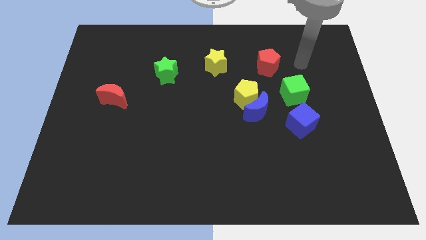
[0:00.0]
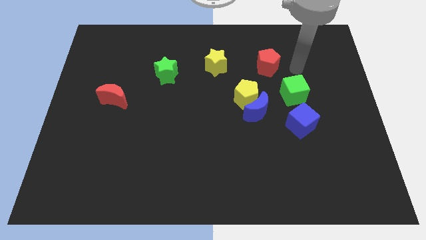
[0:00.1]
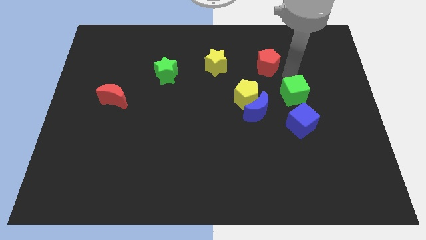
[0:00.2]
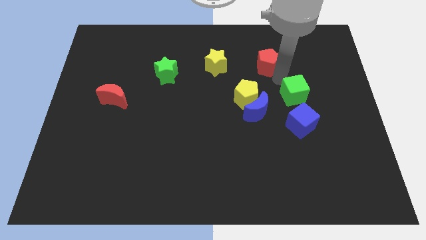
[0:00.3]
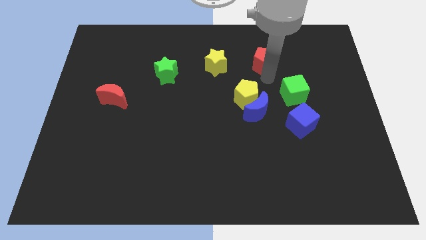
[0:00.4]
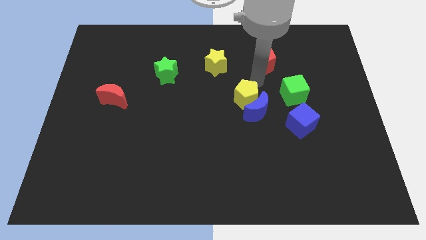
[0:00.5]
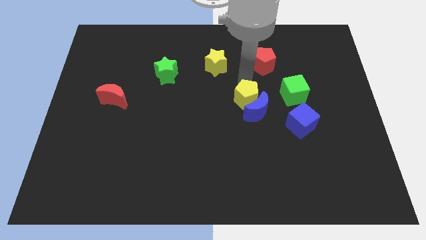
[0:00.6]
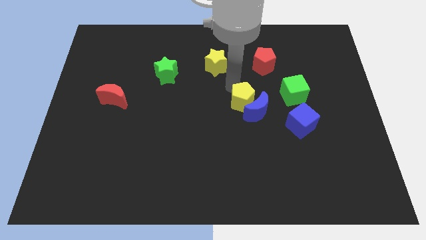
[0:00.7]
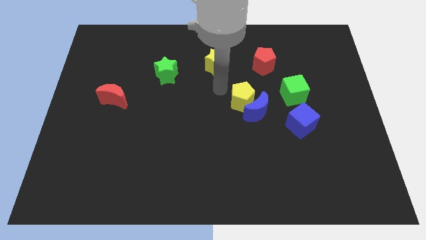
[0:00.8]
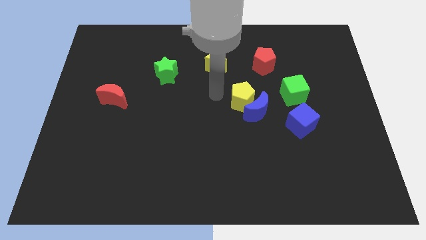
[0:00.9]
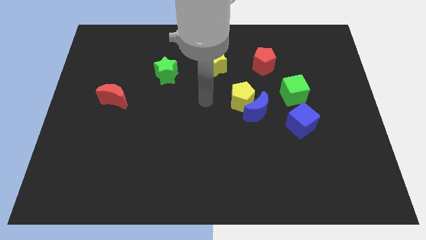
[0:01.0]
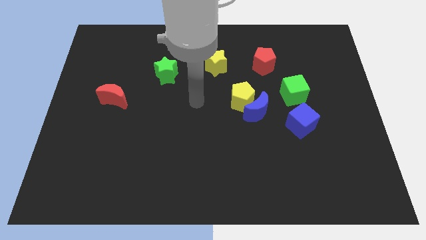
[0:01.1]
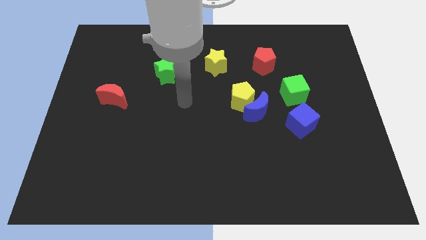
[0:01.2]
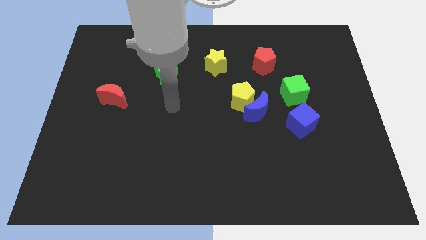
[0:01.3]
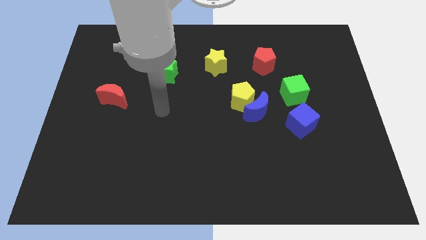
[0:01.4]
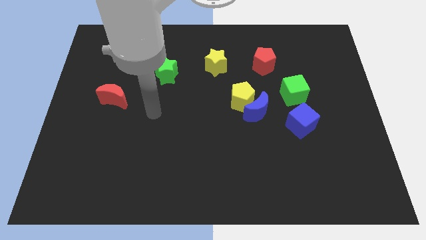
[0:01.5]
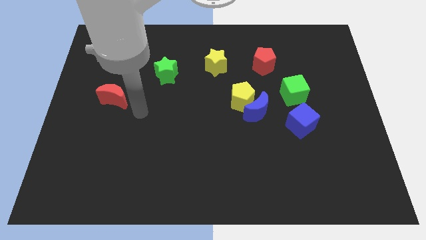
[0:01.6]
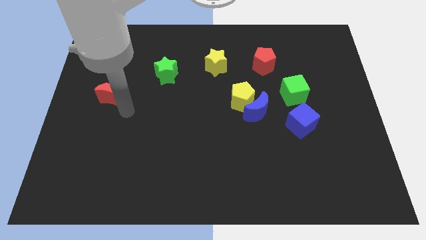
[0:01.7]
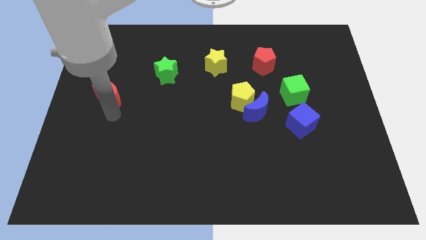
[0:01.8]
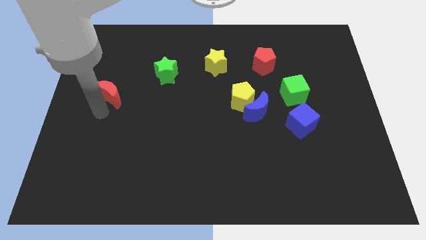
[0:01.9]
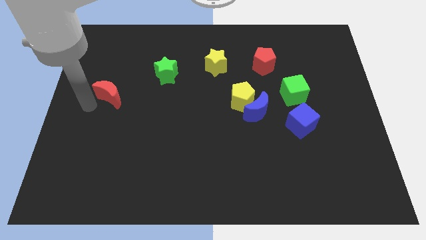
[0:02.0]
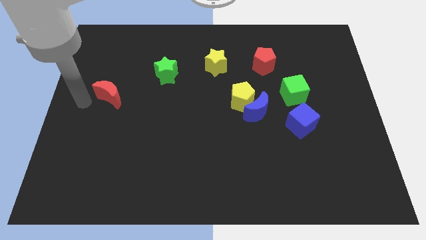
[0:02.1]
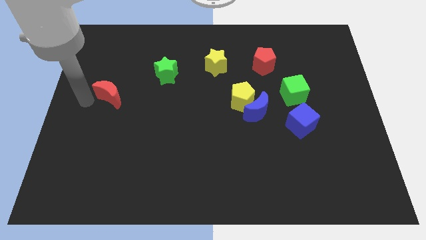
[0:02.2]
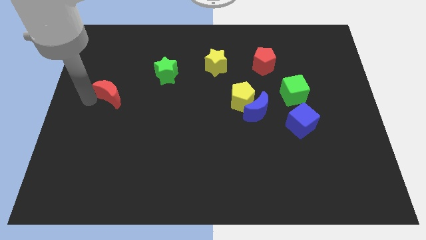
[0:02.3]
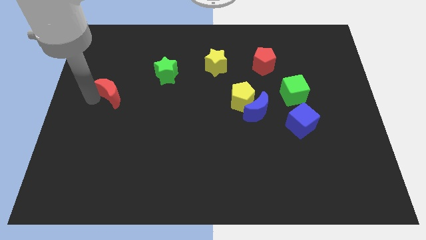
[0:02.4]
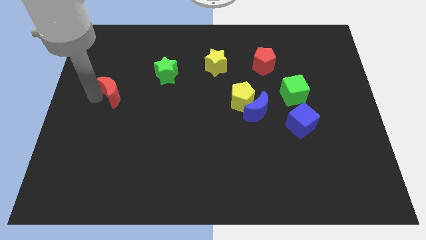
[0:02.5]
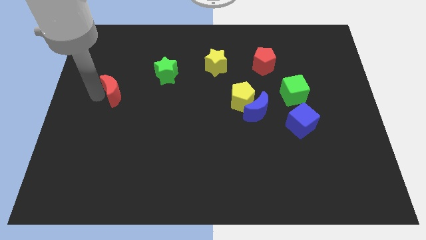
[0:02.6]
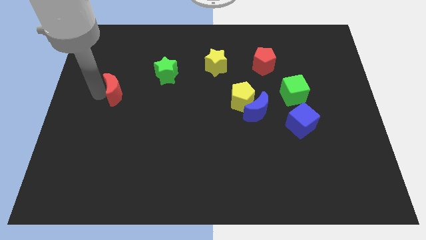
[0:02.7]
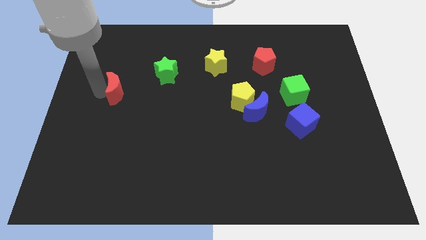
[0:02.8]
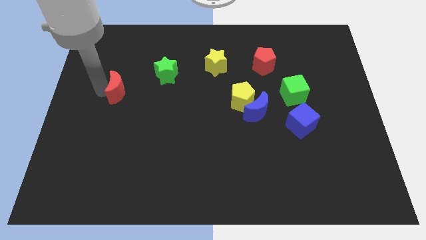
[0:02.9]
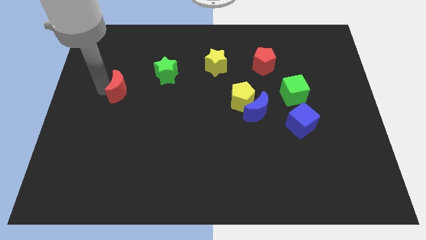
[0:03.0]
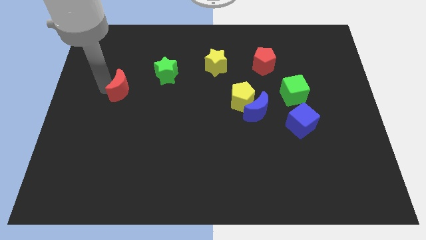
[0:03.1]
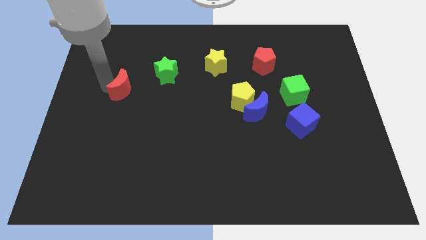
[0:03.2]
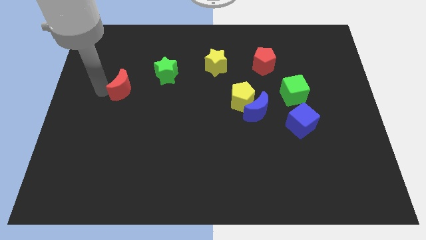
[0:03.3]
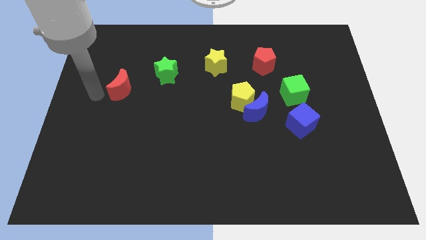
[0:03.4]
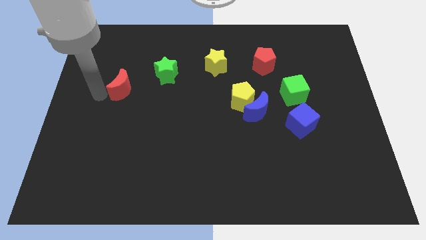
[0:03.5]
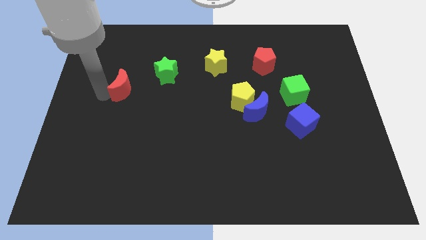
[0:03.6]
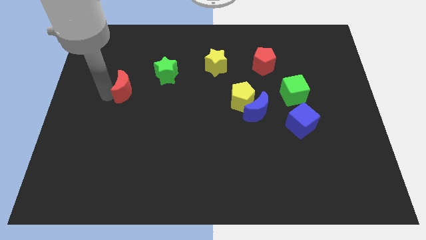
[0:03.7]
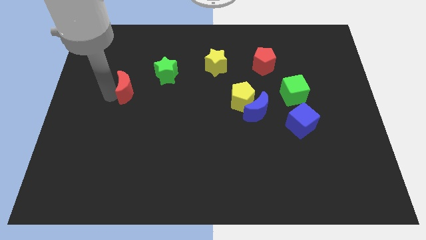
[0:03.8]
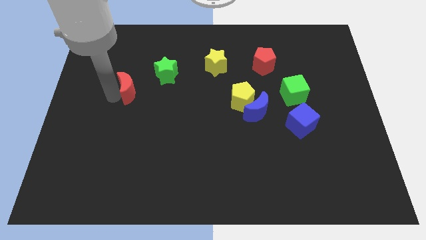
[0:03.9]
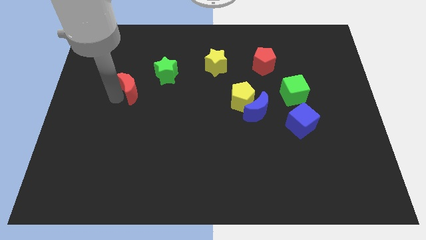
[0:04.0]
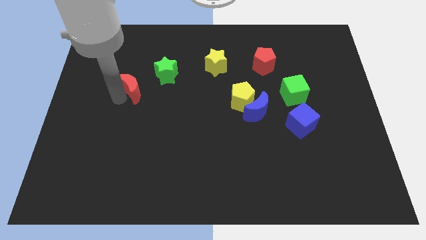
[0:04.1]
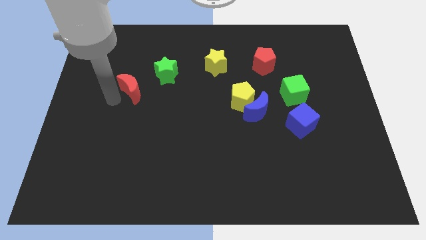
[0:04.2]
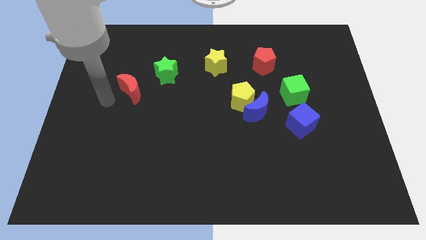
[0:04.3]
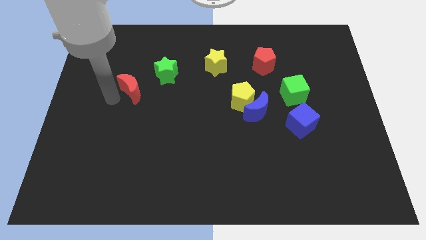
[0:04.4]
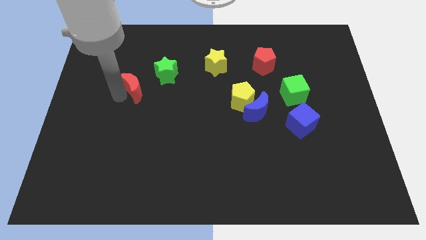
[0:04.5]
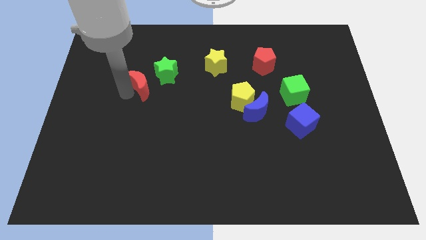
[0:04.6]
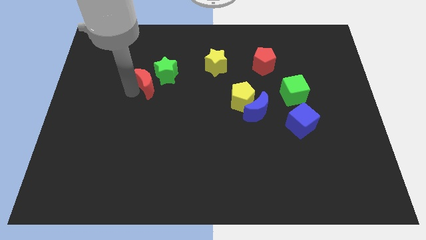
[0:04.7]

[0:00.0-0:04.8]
slide the red moon towards the green star

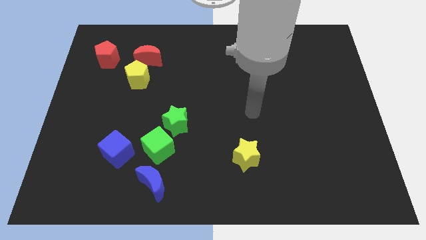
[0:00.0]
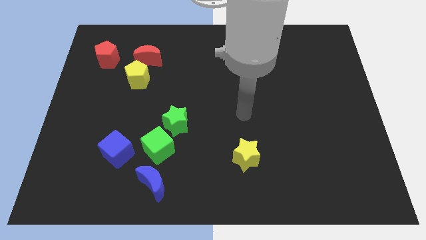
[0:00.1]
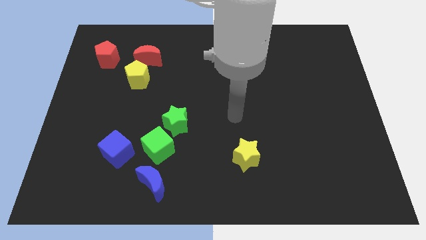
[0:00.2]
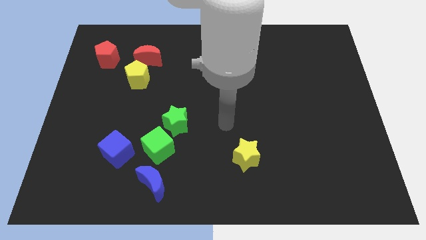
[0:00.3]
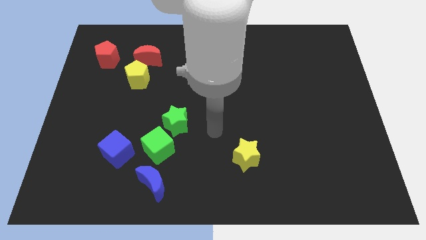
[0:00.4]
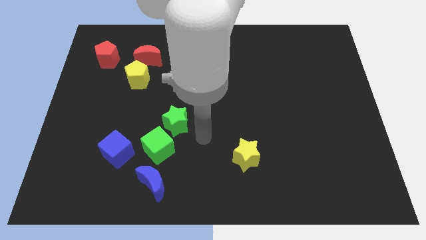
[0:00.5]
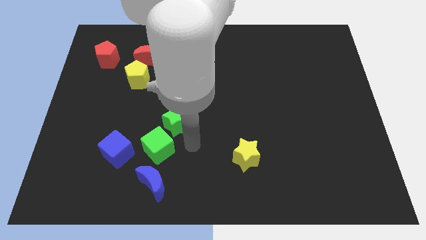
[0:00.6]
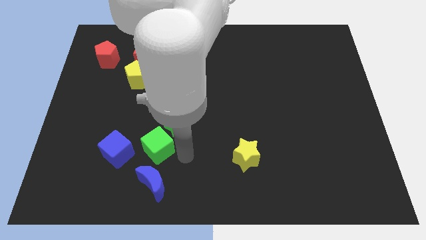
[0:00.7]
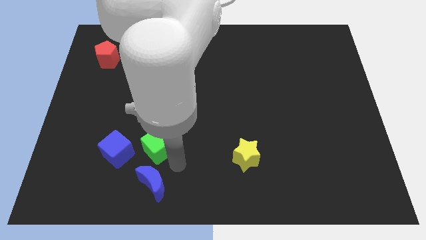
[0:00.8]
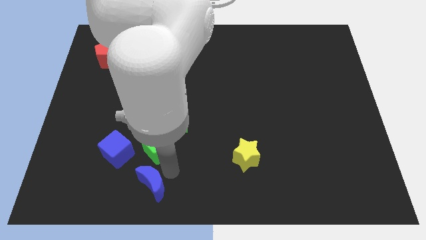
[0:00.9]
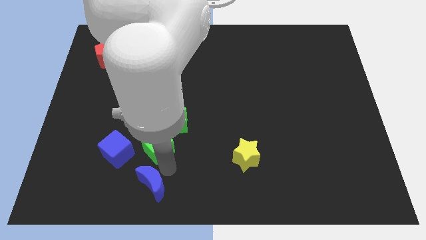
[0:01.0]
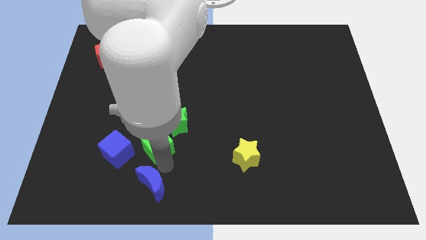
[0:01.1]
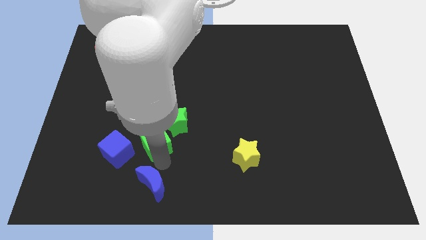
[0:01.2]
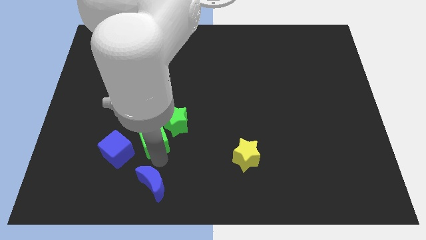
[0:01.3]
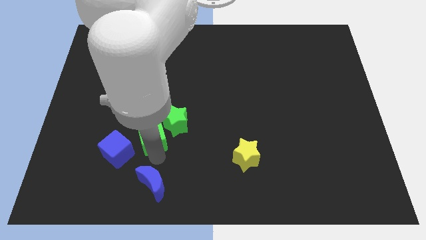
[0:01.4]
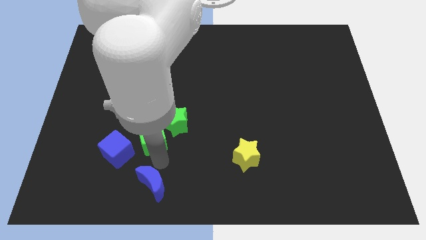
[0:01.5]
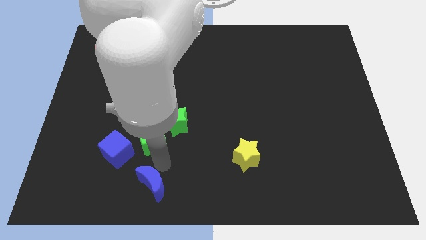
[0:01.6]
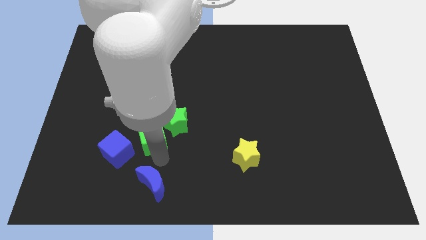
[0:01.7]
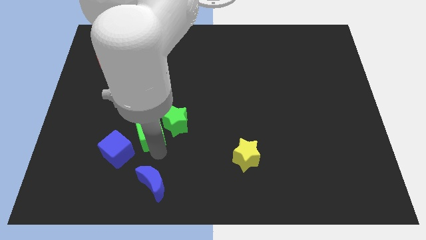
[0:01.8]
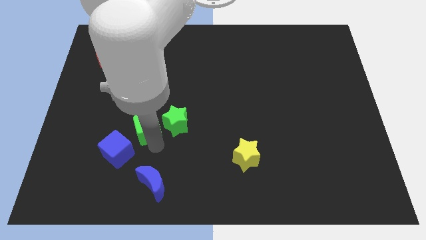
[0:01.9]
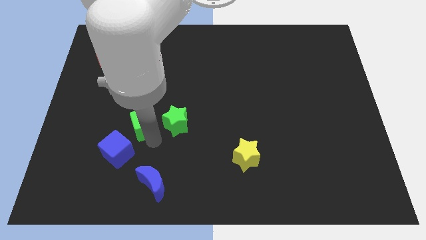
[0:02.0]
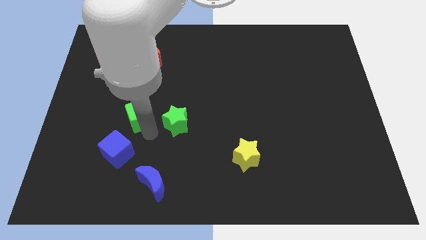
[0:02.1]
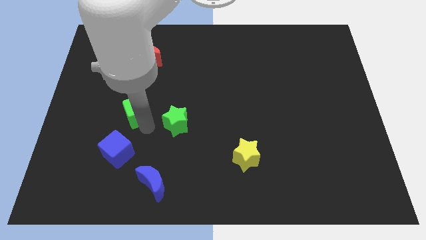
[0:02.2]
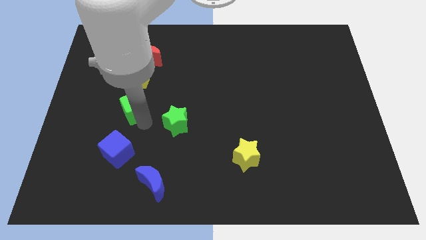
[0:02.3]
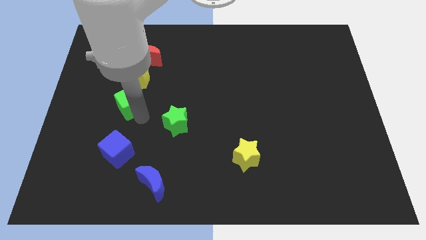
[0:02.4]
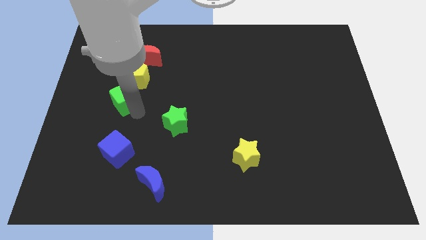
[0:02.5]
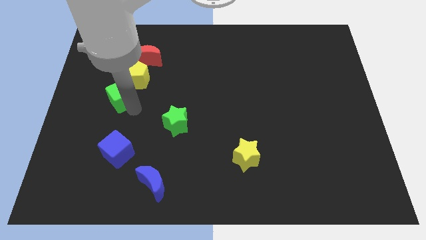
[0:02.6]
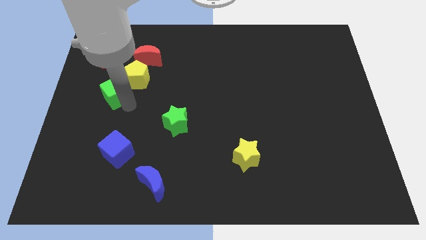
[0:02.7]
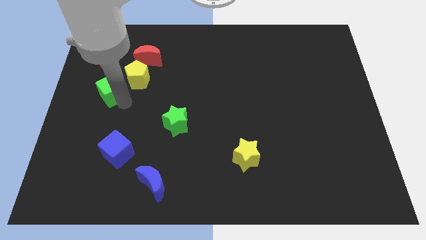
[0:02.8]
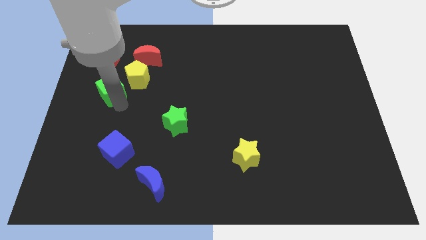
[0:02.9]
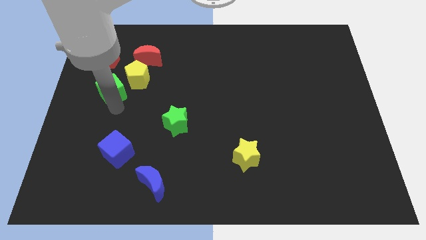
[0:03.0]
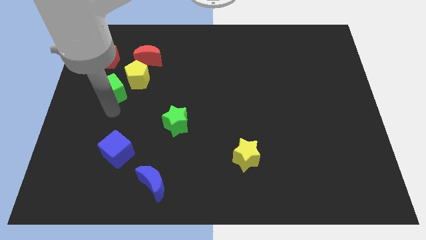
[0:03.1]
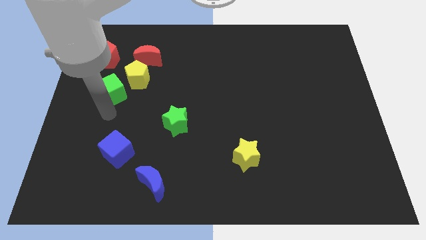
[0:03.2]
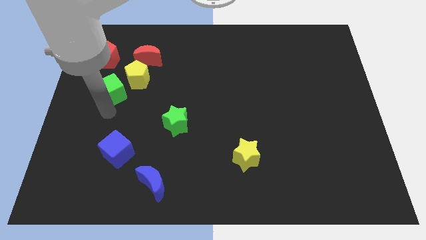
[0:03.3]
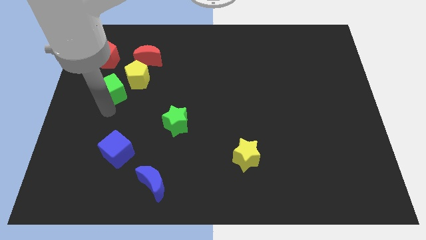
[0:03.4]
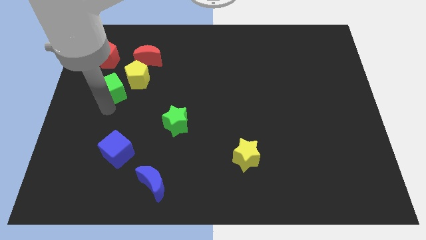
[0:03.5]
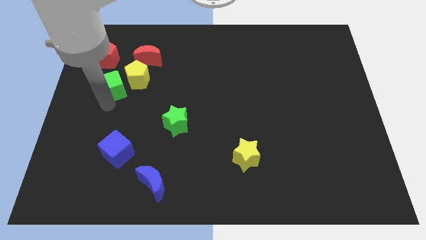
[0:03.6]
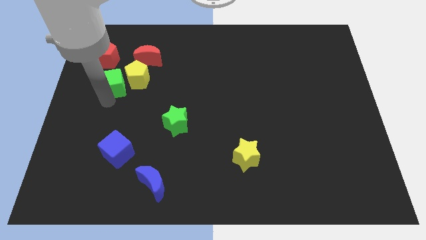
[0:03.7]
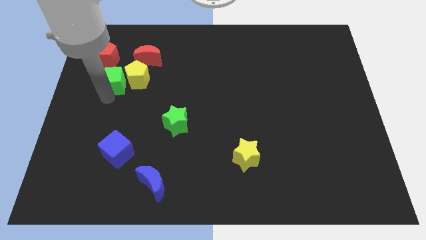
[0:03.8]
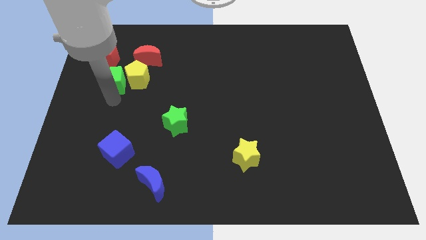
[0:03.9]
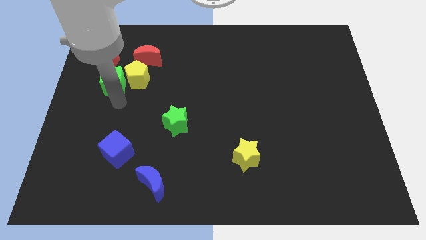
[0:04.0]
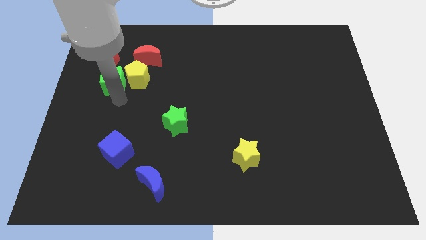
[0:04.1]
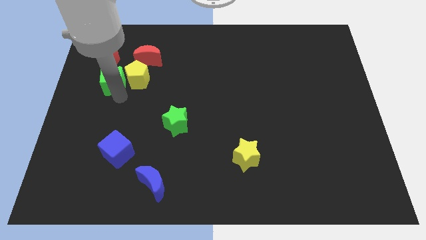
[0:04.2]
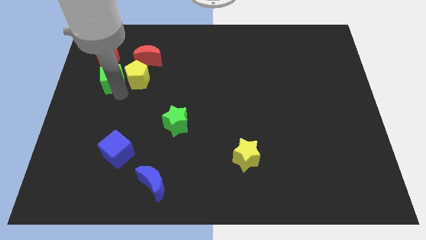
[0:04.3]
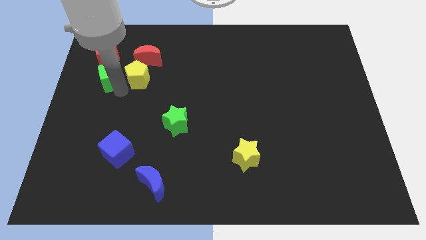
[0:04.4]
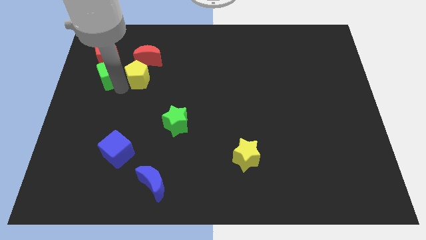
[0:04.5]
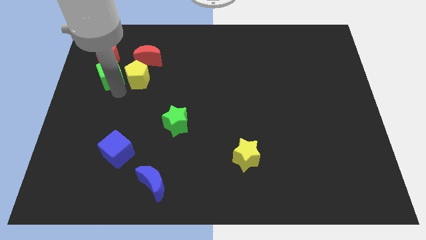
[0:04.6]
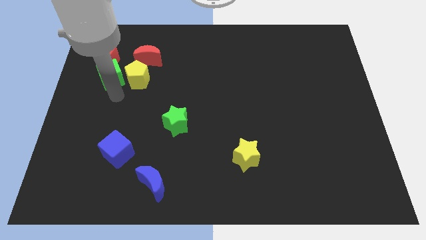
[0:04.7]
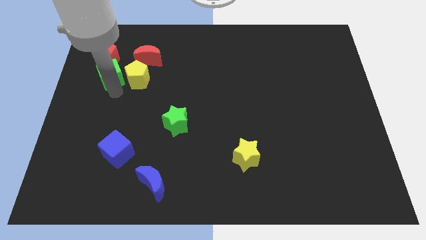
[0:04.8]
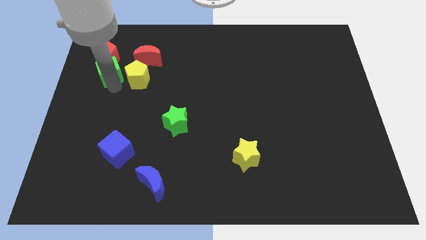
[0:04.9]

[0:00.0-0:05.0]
slide the green cube next to the red pentagon
